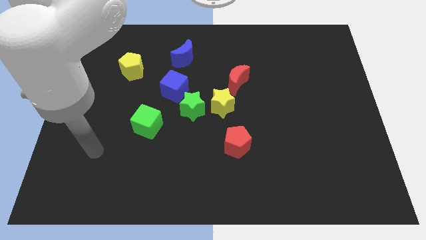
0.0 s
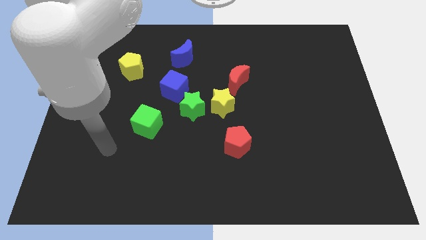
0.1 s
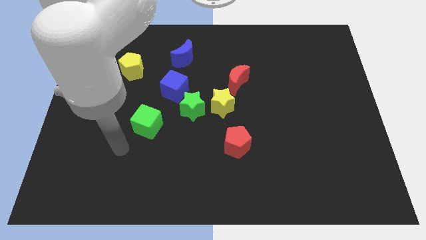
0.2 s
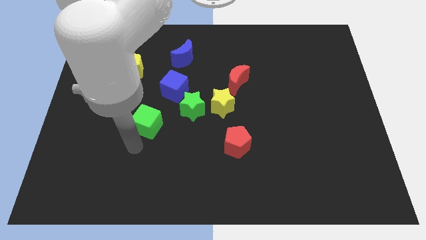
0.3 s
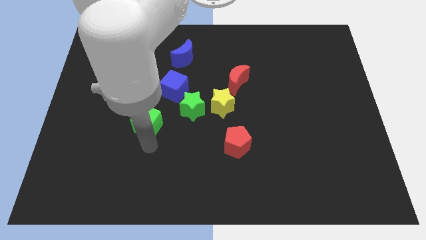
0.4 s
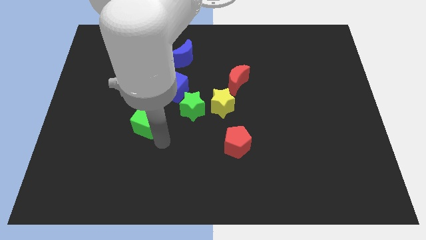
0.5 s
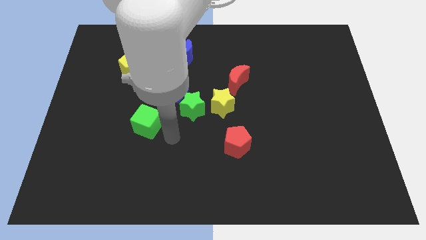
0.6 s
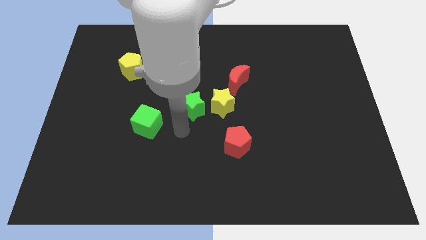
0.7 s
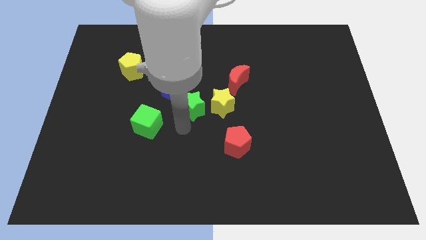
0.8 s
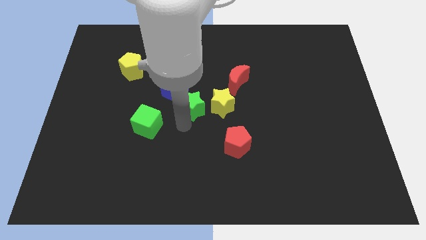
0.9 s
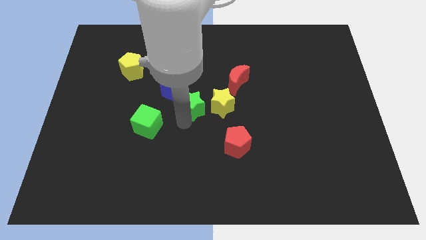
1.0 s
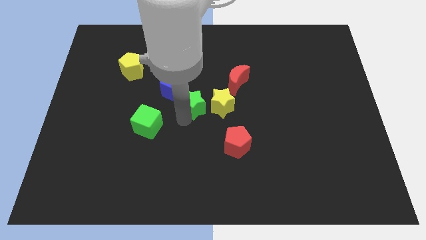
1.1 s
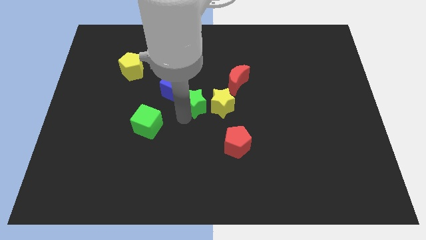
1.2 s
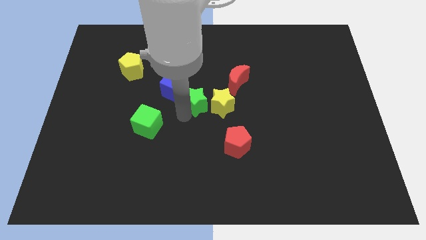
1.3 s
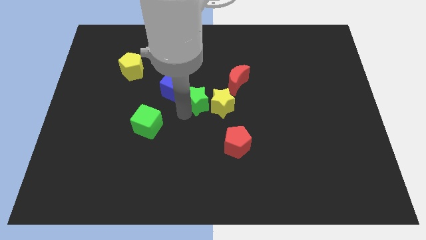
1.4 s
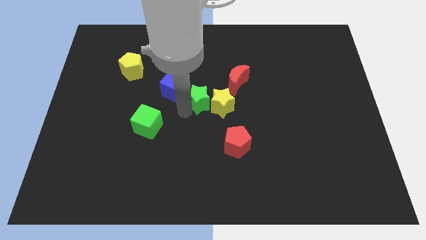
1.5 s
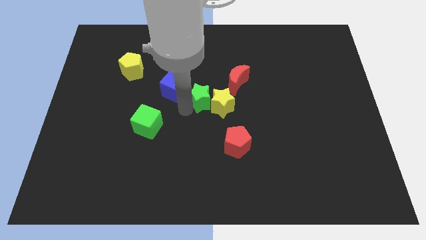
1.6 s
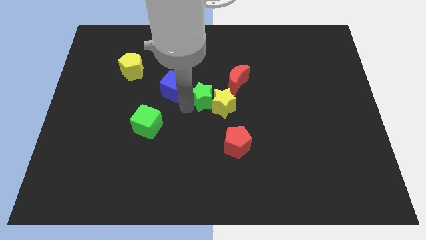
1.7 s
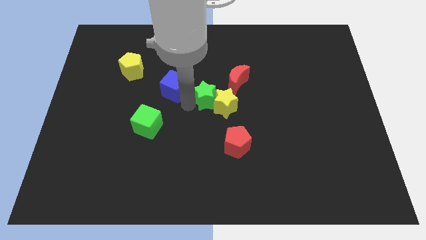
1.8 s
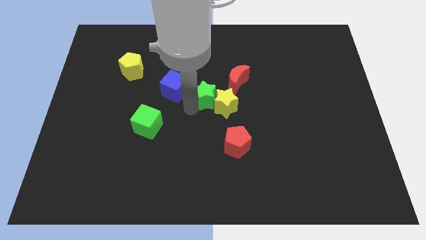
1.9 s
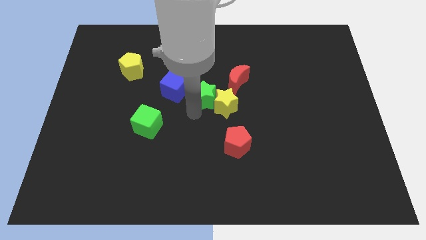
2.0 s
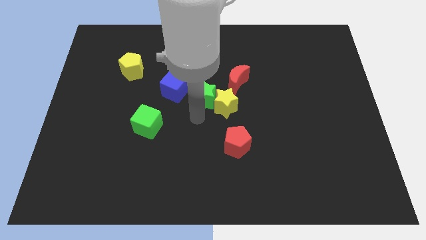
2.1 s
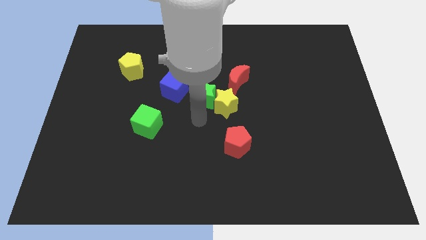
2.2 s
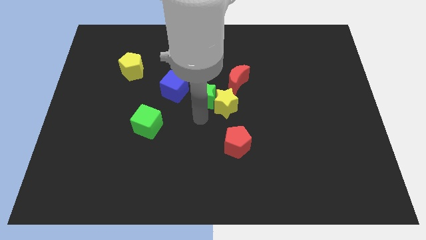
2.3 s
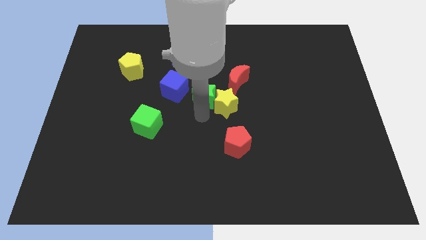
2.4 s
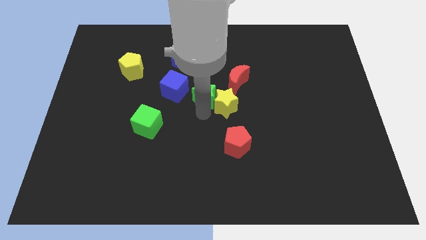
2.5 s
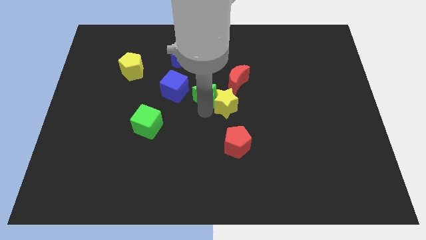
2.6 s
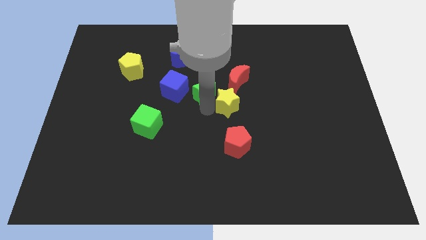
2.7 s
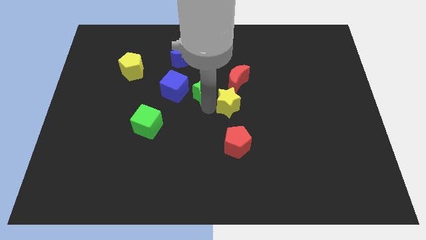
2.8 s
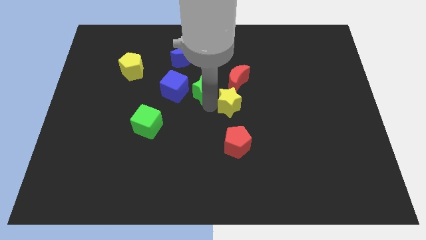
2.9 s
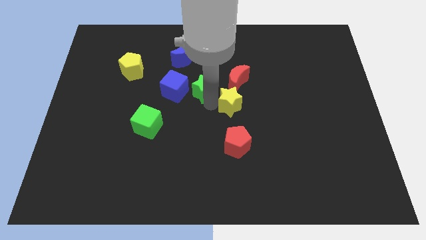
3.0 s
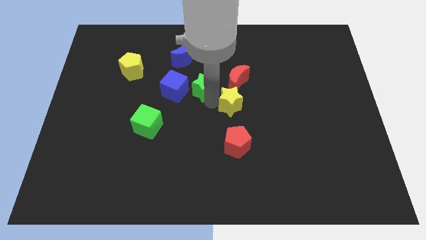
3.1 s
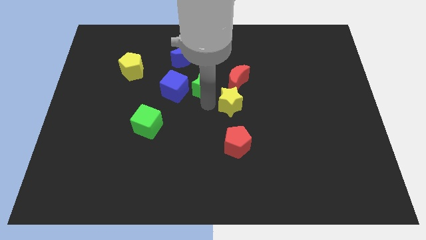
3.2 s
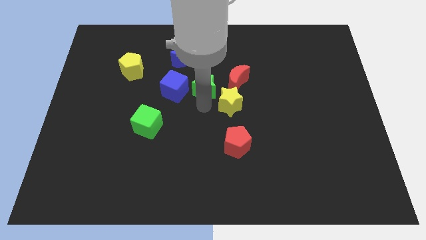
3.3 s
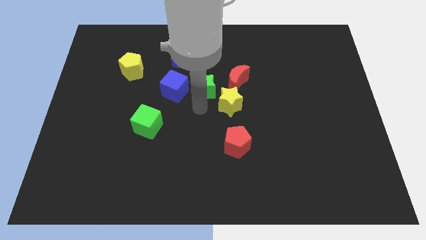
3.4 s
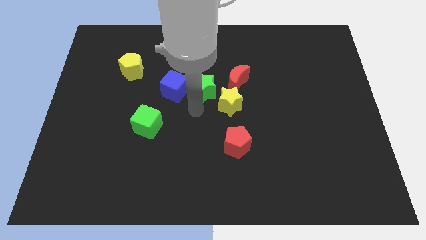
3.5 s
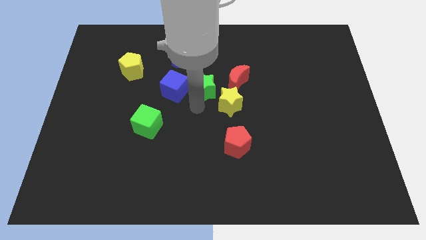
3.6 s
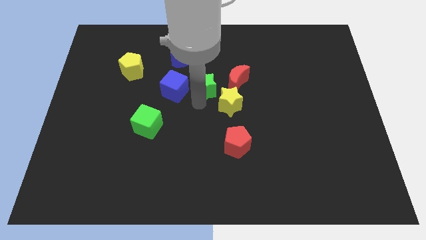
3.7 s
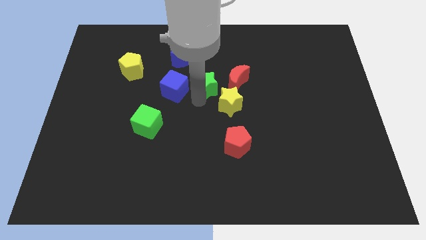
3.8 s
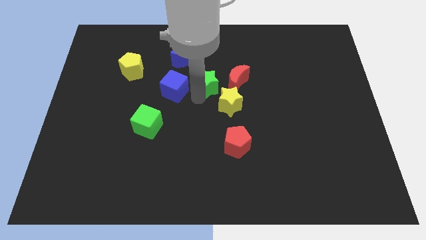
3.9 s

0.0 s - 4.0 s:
push the green star up and to the right slightly

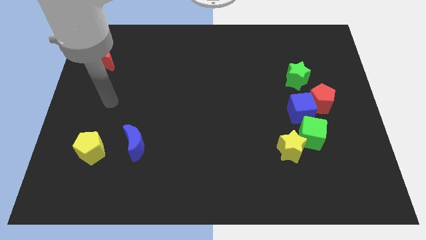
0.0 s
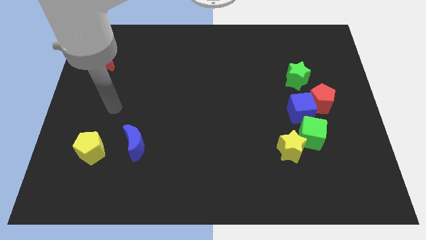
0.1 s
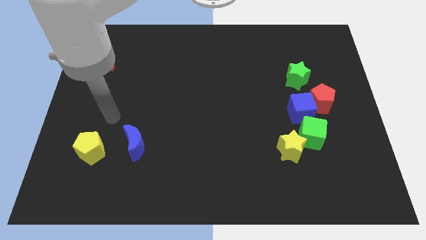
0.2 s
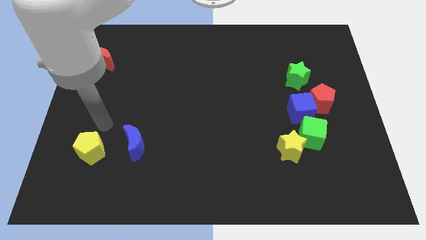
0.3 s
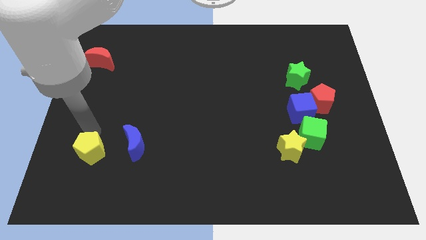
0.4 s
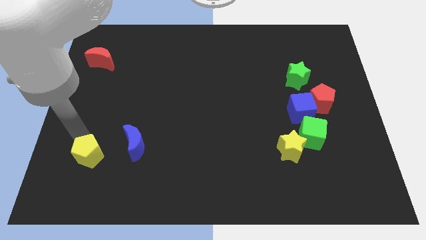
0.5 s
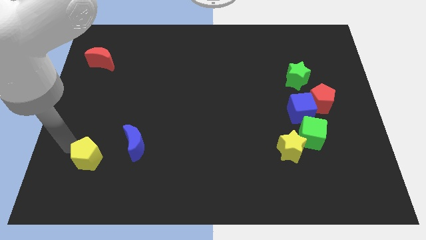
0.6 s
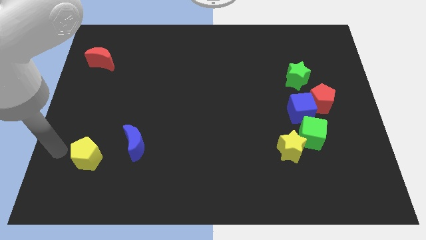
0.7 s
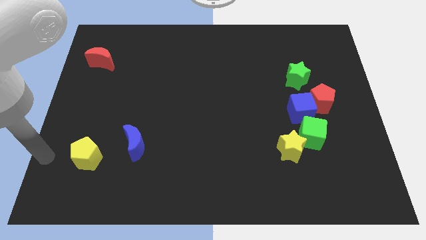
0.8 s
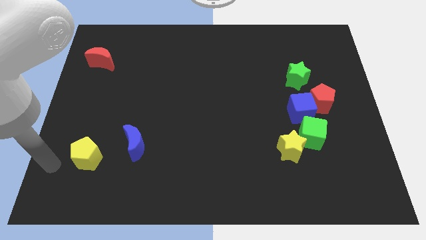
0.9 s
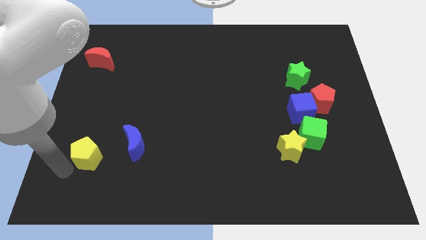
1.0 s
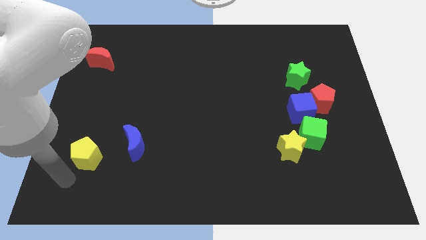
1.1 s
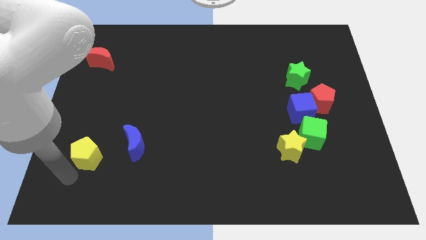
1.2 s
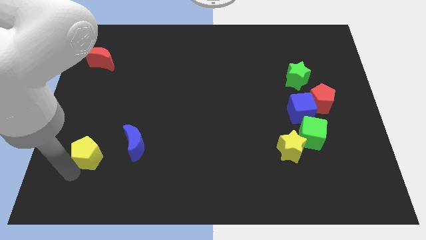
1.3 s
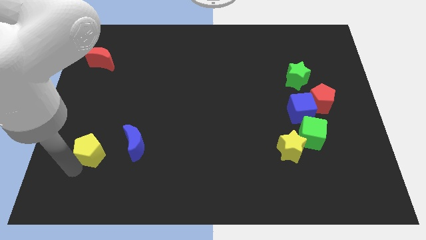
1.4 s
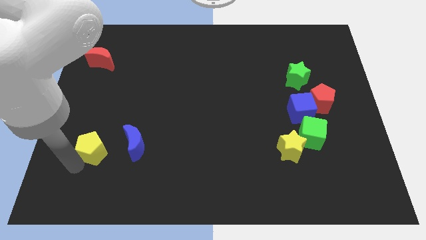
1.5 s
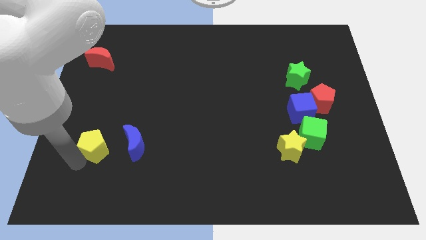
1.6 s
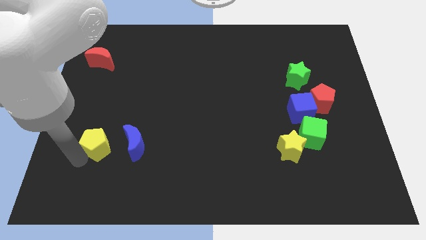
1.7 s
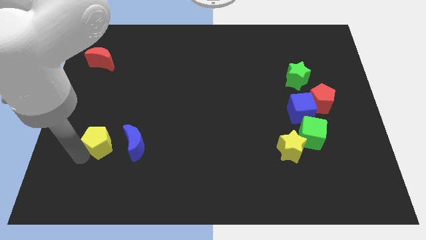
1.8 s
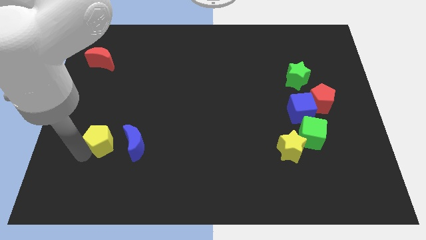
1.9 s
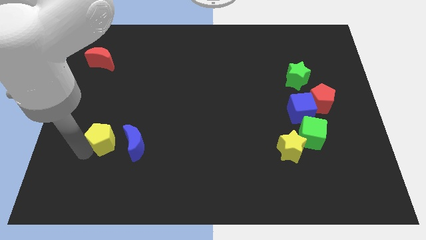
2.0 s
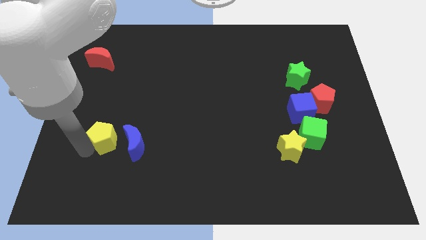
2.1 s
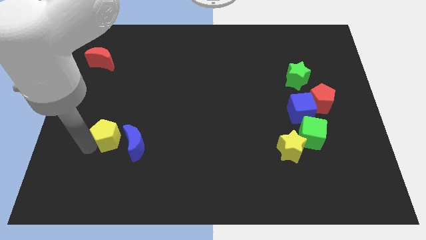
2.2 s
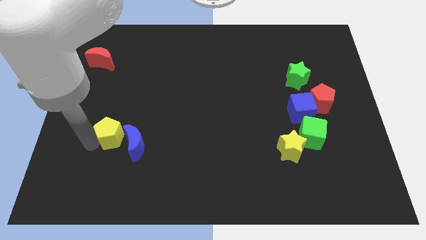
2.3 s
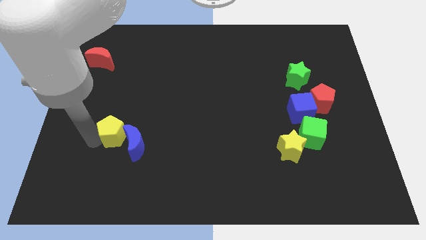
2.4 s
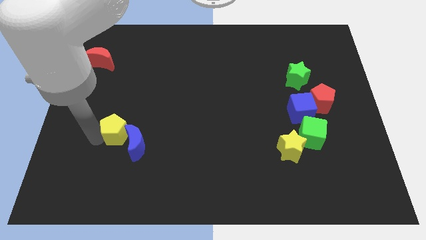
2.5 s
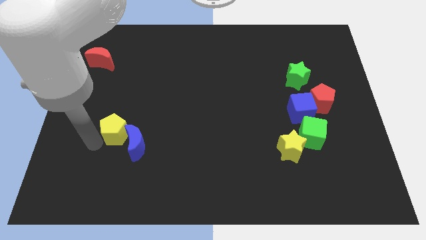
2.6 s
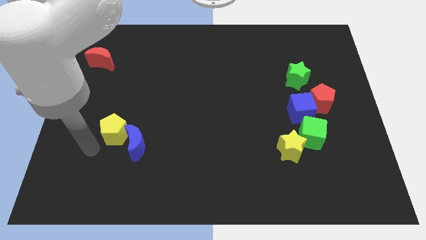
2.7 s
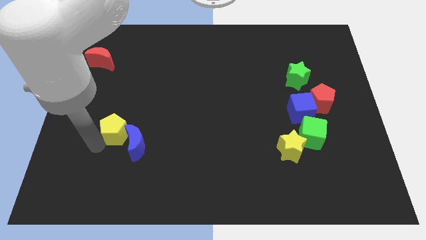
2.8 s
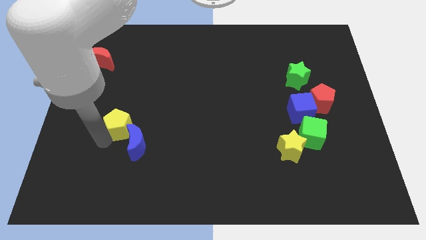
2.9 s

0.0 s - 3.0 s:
slide the yellow pentagon a little upwards and then to the right

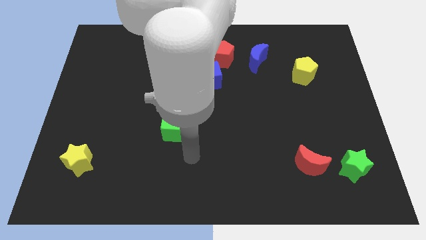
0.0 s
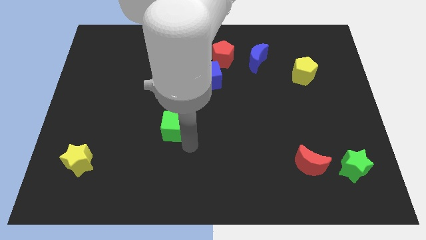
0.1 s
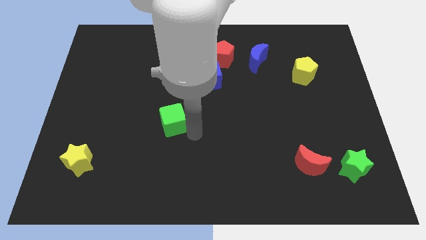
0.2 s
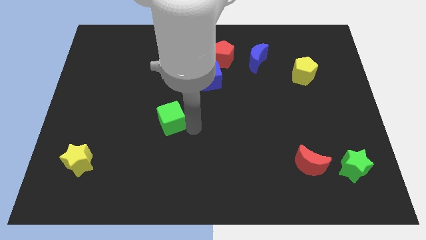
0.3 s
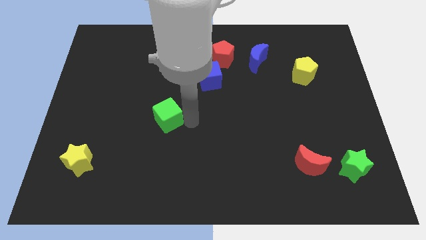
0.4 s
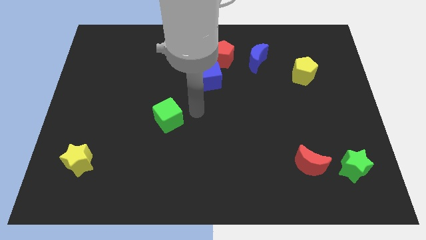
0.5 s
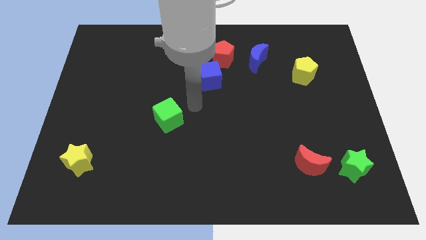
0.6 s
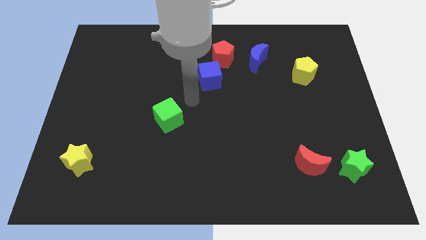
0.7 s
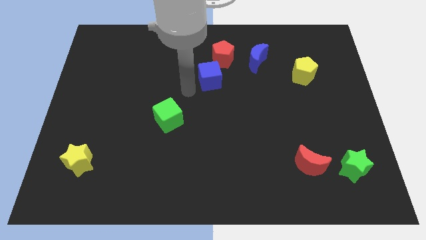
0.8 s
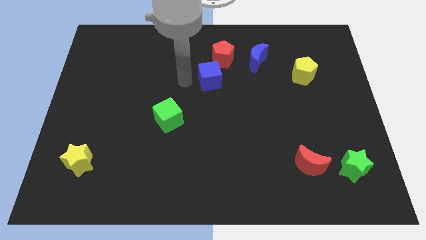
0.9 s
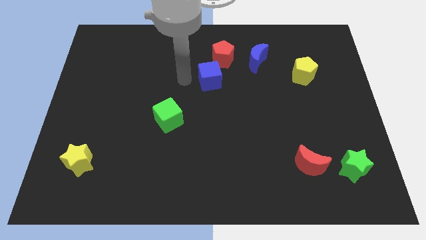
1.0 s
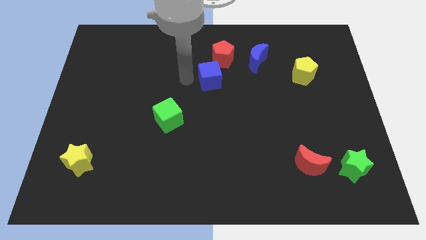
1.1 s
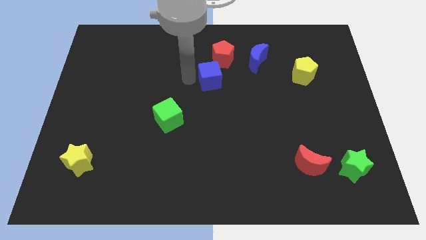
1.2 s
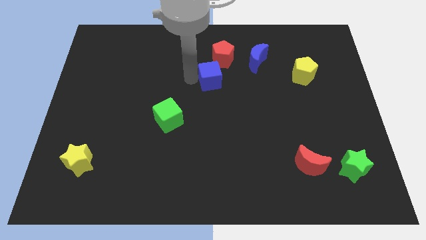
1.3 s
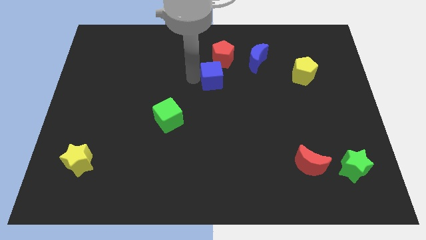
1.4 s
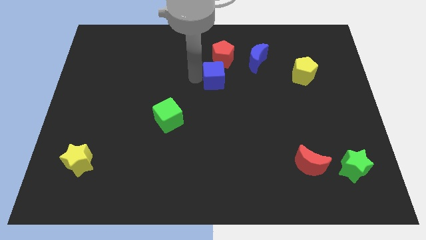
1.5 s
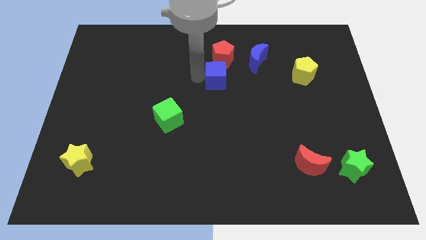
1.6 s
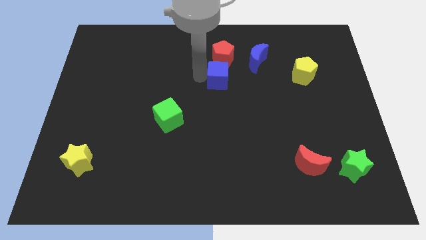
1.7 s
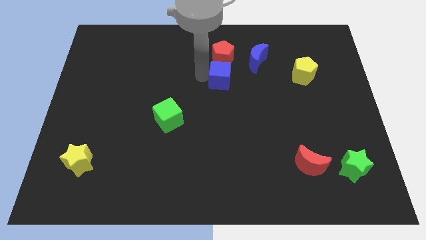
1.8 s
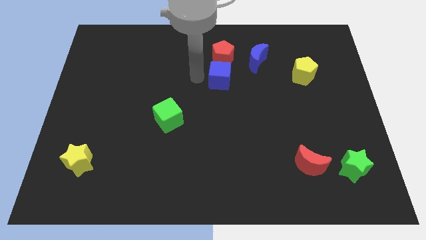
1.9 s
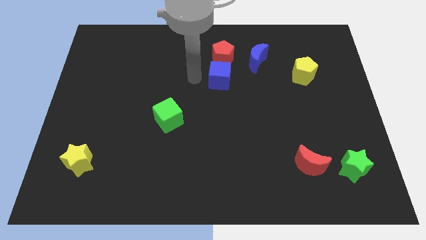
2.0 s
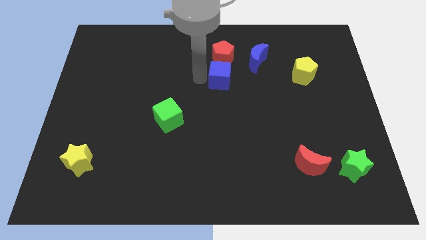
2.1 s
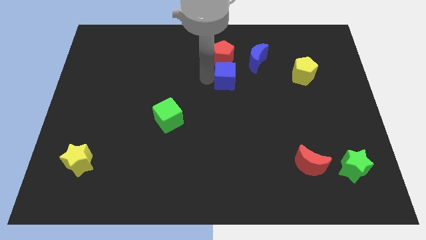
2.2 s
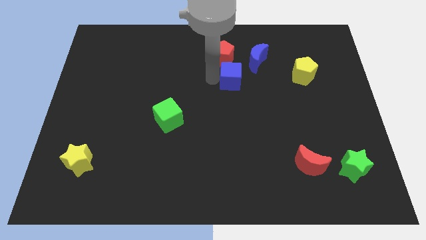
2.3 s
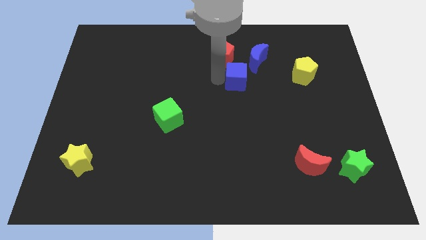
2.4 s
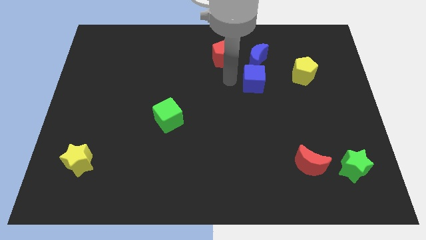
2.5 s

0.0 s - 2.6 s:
push the blue cube right slightly
